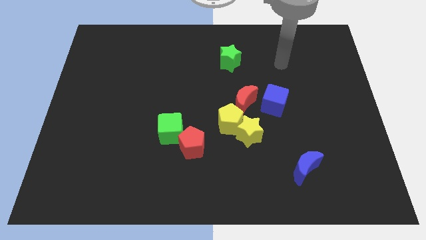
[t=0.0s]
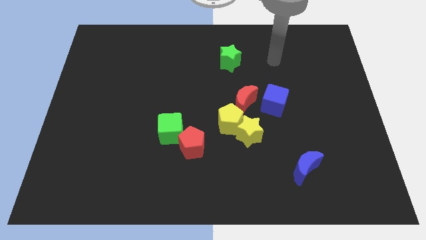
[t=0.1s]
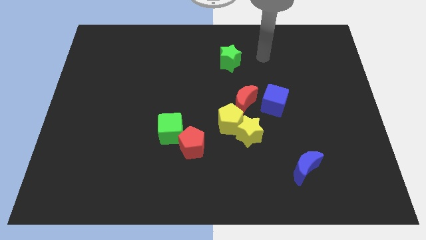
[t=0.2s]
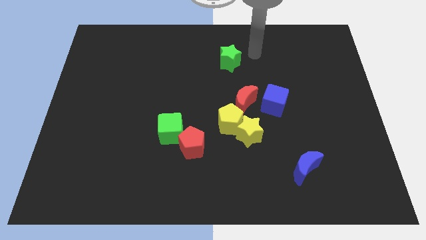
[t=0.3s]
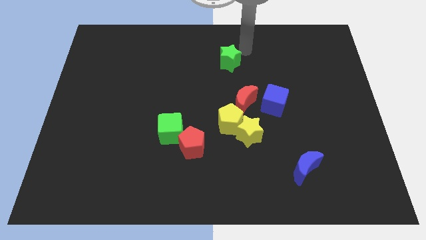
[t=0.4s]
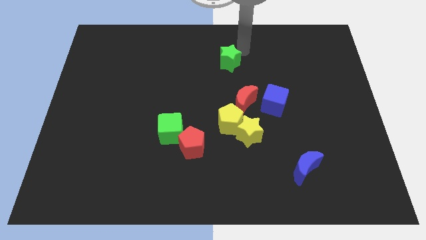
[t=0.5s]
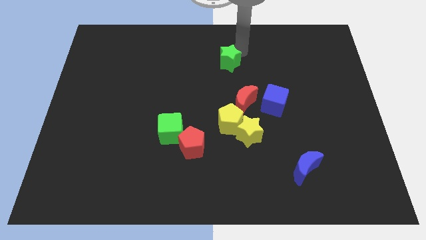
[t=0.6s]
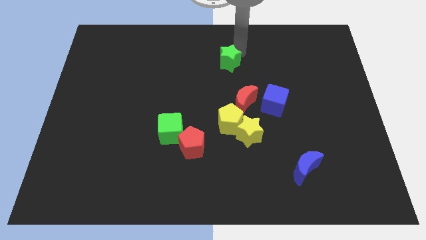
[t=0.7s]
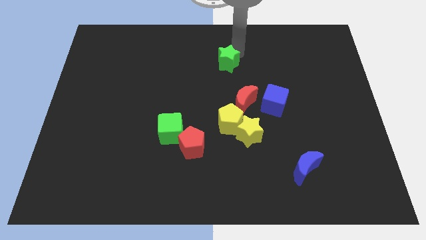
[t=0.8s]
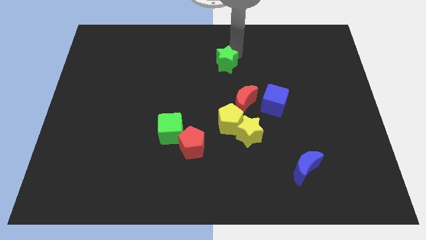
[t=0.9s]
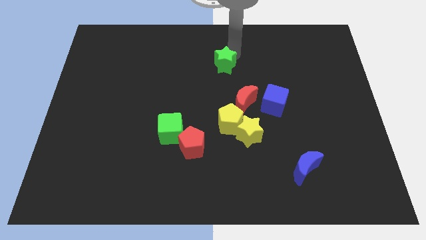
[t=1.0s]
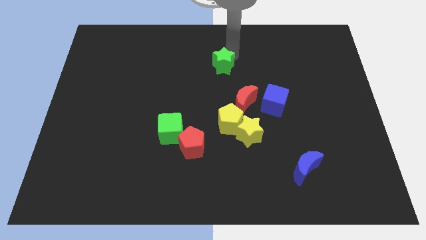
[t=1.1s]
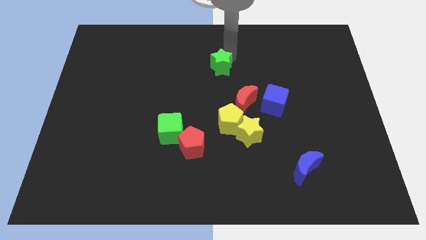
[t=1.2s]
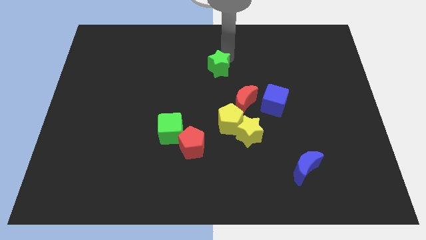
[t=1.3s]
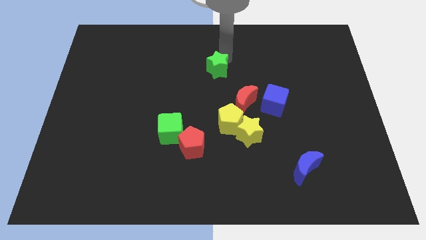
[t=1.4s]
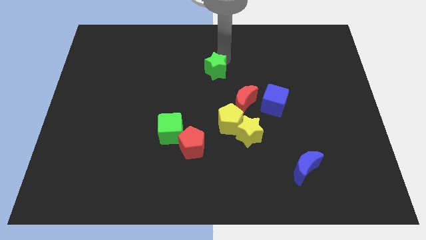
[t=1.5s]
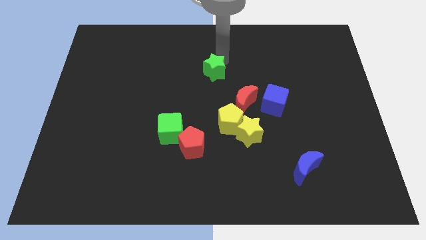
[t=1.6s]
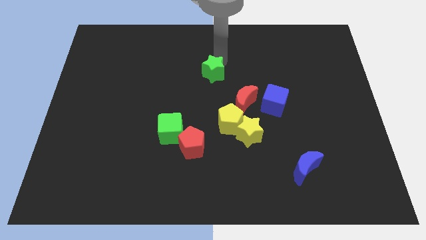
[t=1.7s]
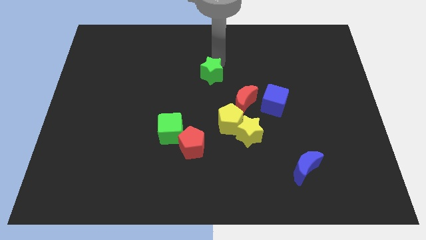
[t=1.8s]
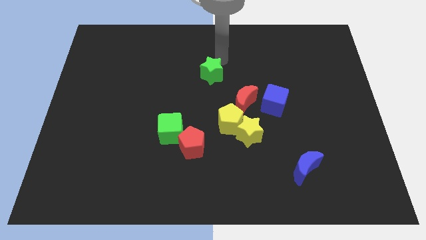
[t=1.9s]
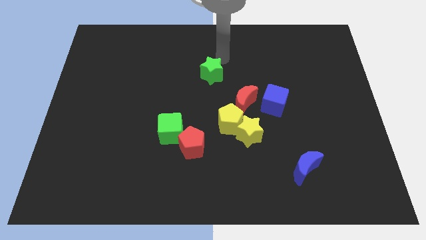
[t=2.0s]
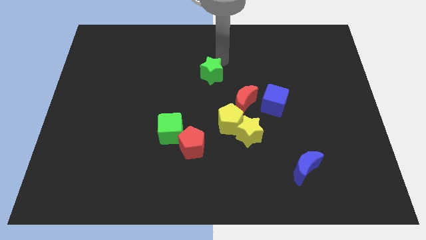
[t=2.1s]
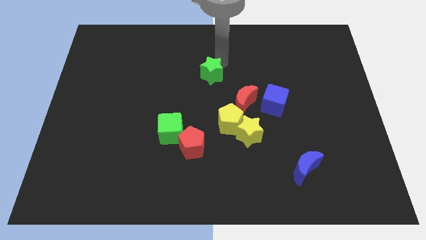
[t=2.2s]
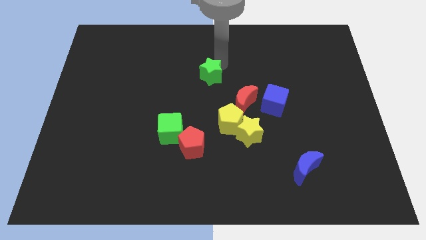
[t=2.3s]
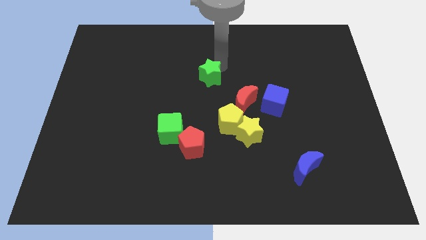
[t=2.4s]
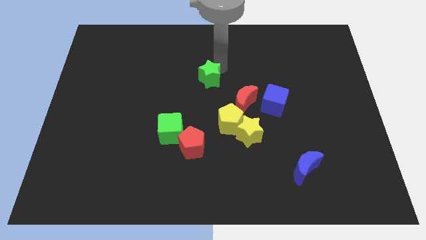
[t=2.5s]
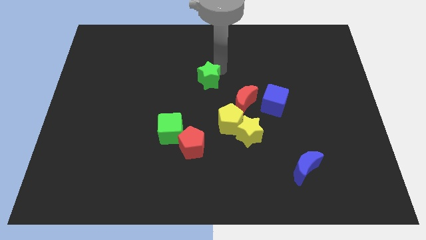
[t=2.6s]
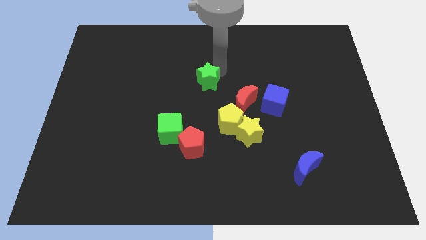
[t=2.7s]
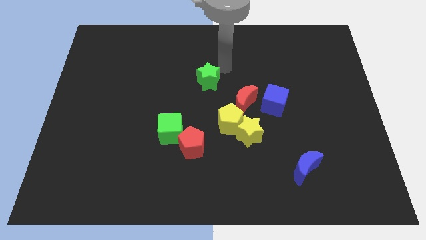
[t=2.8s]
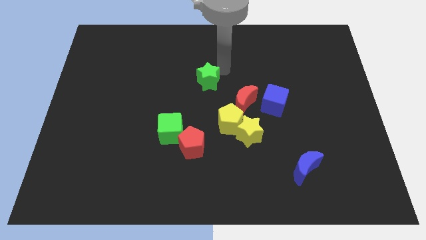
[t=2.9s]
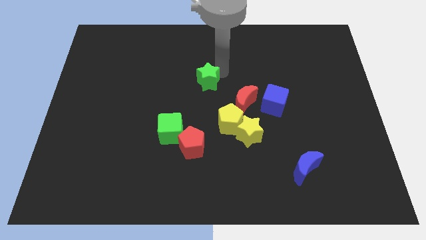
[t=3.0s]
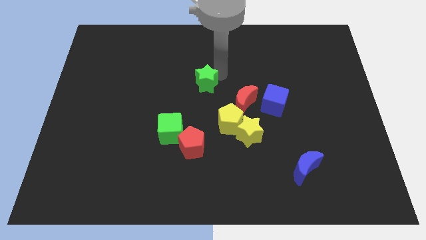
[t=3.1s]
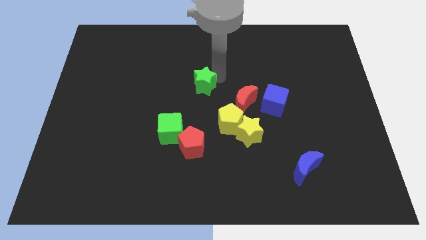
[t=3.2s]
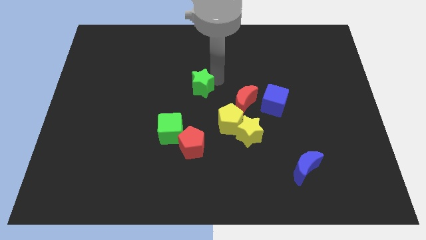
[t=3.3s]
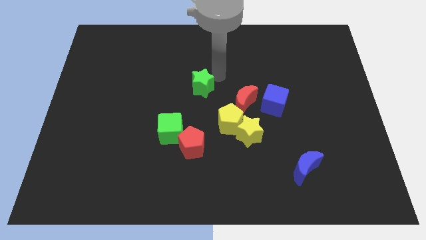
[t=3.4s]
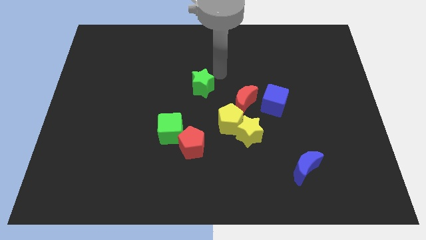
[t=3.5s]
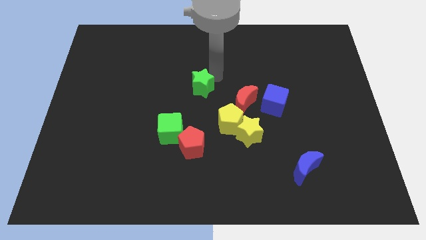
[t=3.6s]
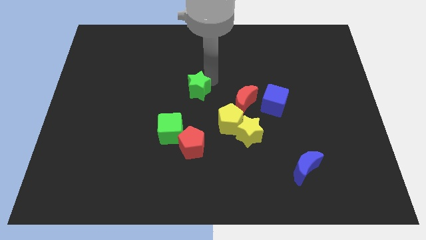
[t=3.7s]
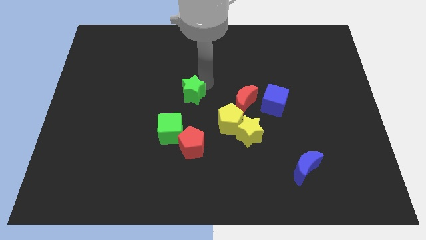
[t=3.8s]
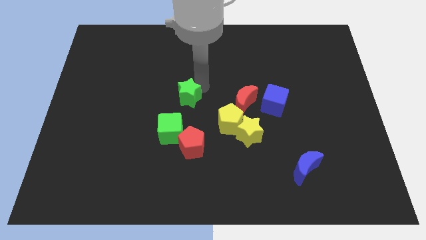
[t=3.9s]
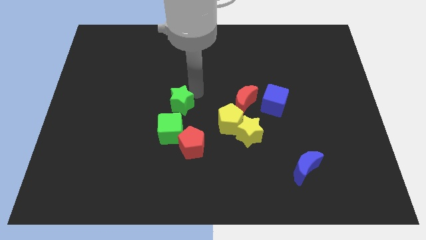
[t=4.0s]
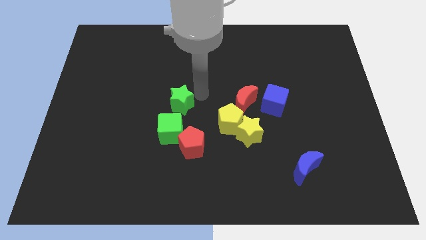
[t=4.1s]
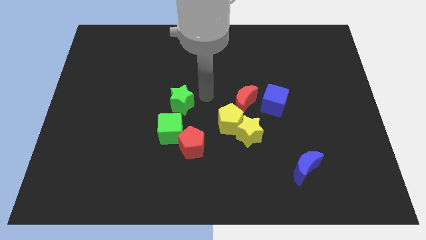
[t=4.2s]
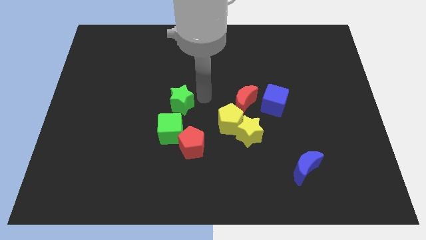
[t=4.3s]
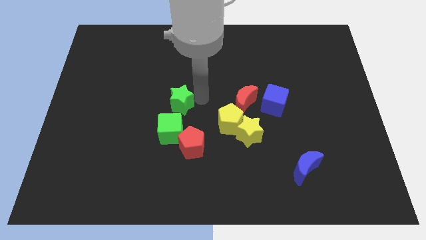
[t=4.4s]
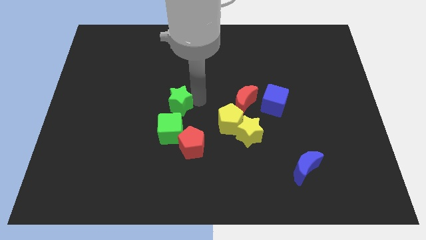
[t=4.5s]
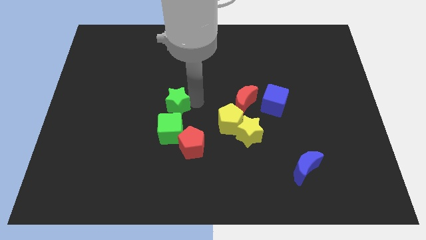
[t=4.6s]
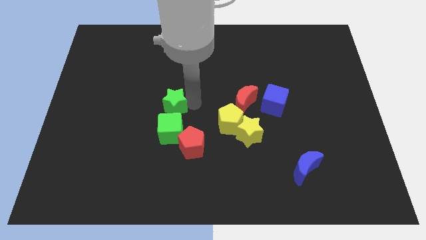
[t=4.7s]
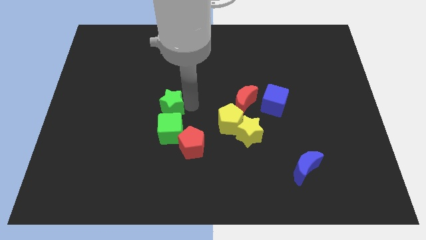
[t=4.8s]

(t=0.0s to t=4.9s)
slide the green star to the top left side of the green cube

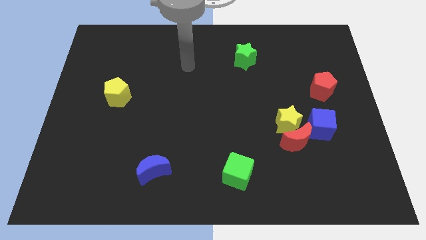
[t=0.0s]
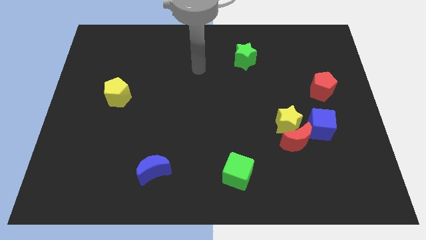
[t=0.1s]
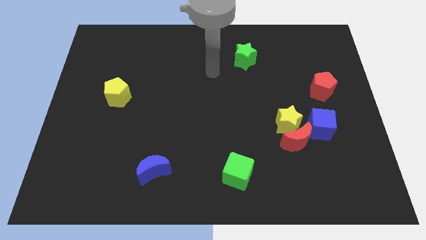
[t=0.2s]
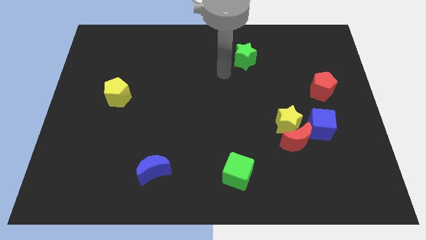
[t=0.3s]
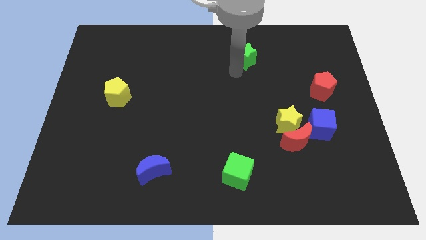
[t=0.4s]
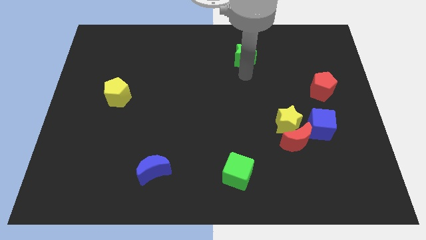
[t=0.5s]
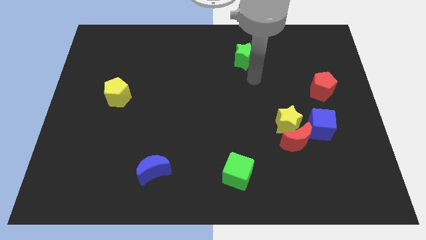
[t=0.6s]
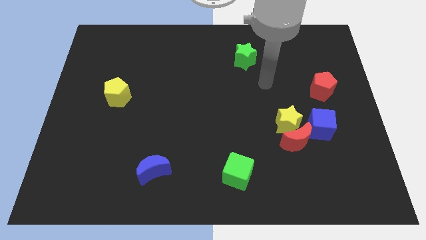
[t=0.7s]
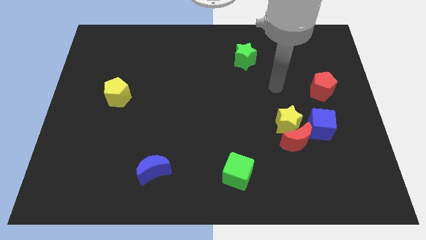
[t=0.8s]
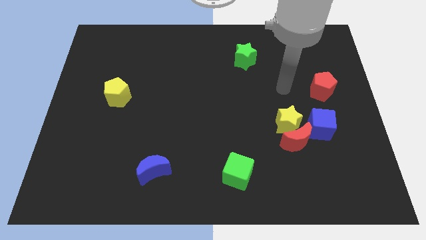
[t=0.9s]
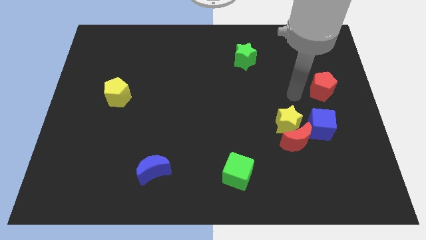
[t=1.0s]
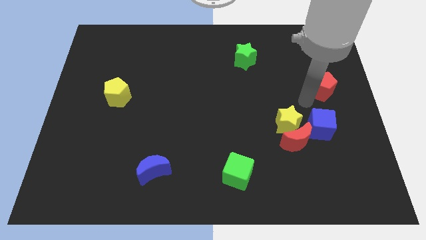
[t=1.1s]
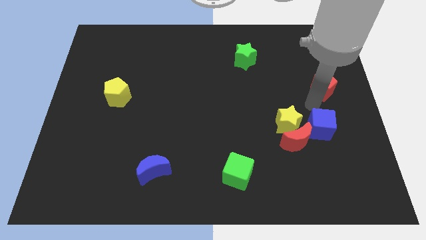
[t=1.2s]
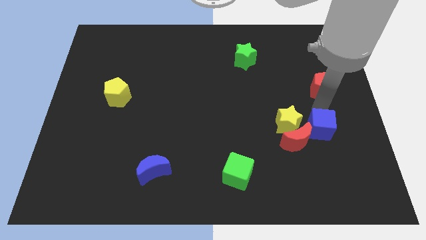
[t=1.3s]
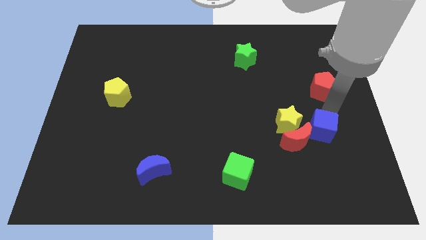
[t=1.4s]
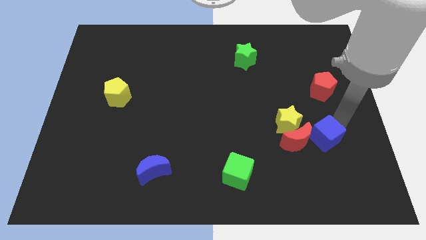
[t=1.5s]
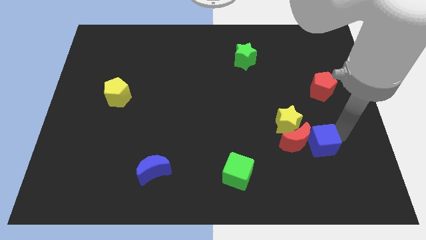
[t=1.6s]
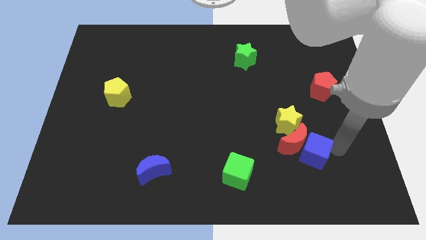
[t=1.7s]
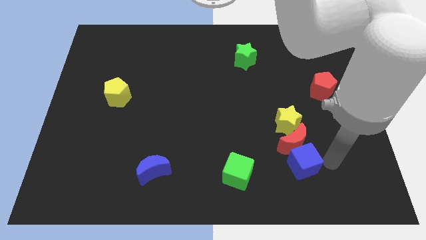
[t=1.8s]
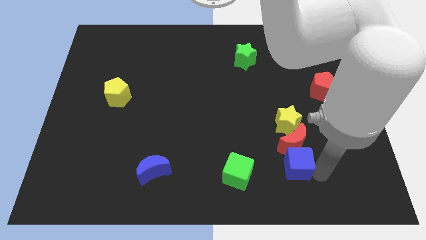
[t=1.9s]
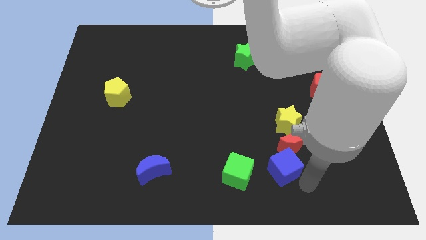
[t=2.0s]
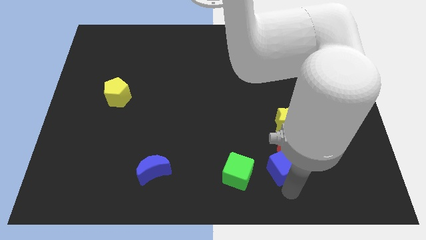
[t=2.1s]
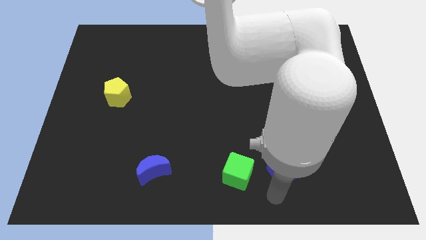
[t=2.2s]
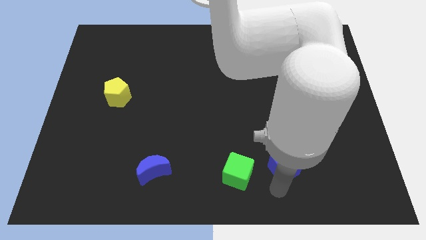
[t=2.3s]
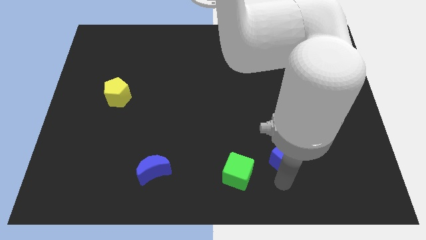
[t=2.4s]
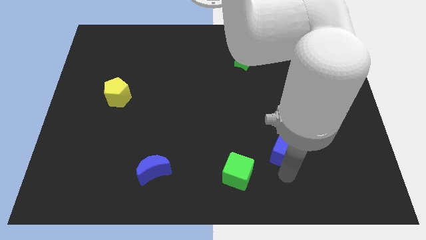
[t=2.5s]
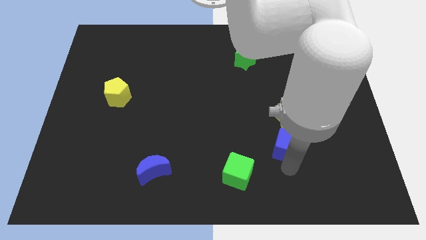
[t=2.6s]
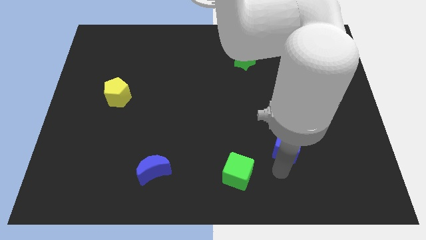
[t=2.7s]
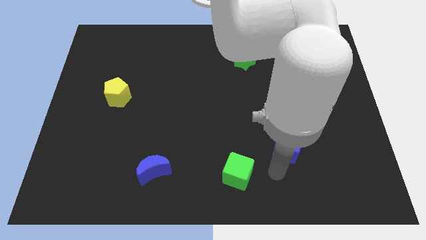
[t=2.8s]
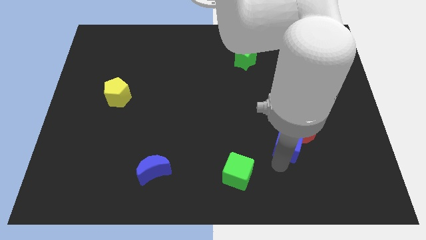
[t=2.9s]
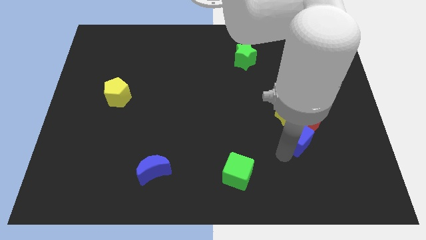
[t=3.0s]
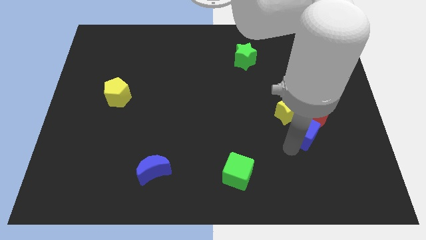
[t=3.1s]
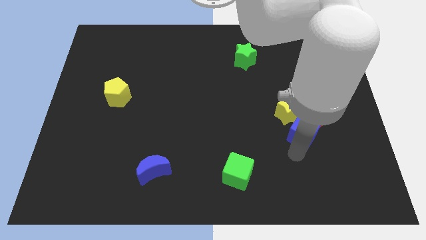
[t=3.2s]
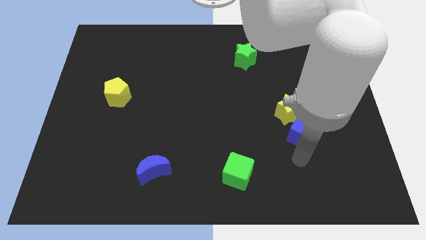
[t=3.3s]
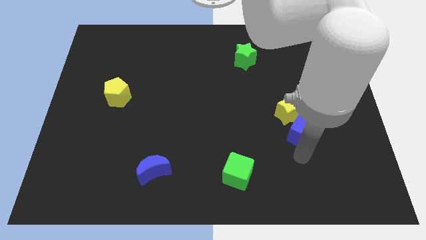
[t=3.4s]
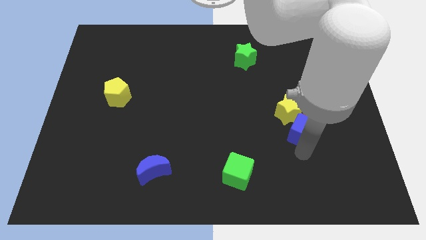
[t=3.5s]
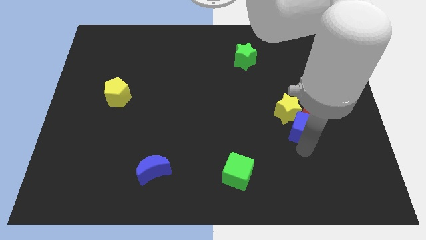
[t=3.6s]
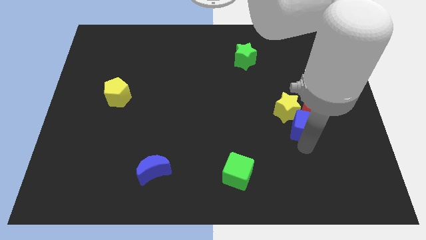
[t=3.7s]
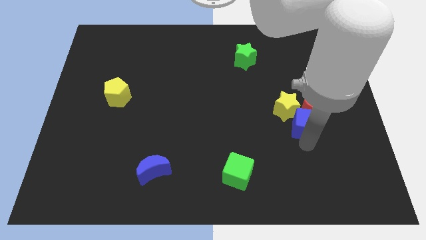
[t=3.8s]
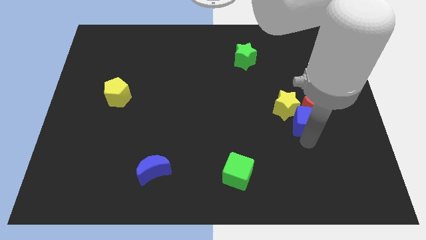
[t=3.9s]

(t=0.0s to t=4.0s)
slide the blue cube to the bottom left of the red pentagon
